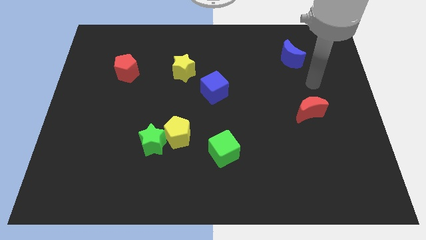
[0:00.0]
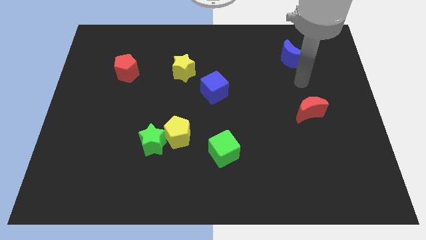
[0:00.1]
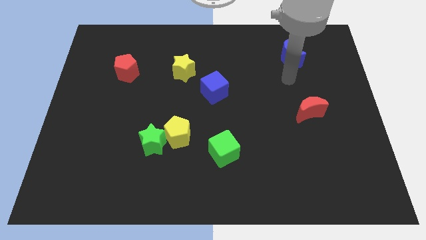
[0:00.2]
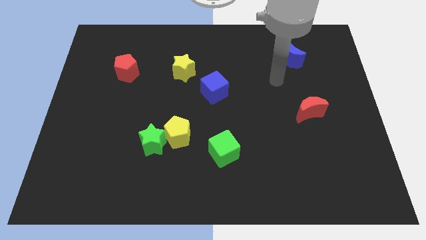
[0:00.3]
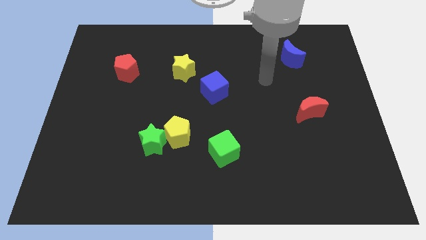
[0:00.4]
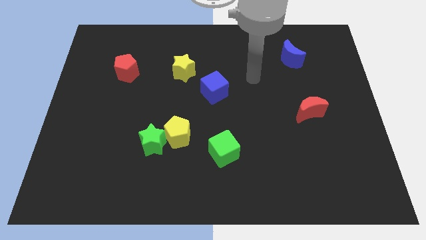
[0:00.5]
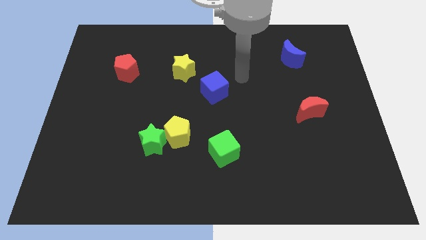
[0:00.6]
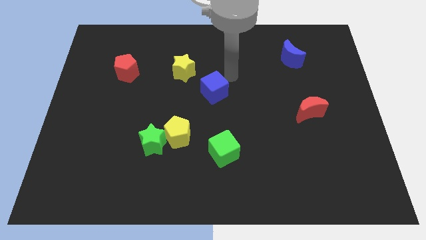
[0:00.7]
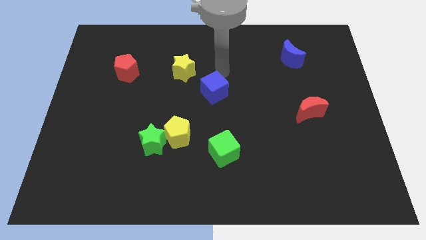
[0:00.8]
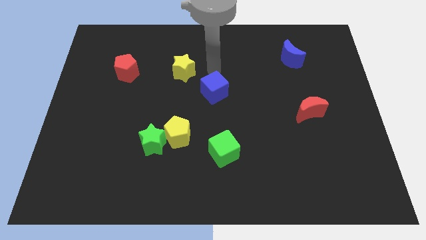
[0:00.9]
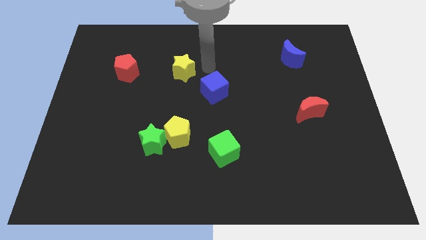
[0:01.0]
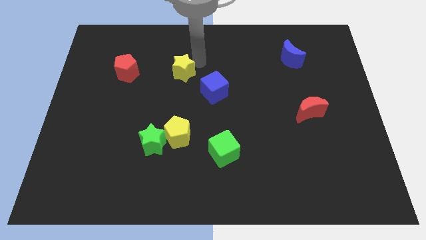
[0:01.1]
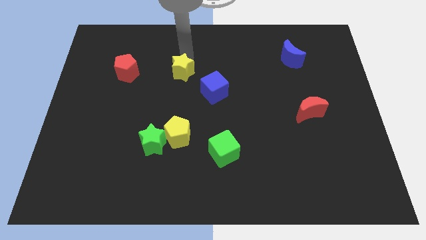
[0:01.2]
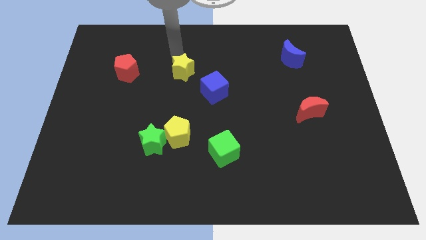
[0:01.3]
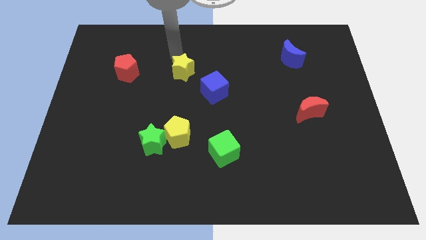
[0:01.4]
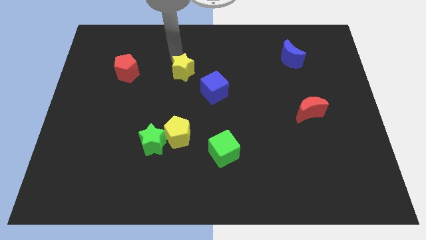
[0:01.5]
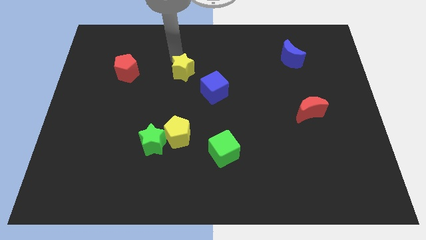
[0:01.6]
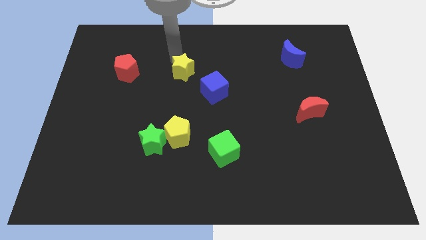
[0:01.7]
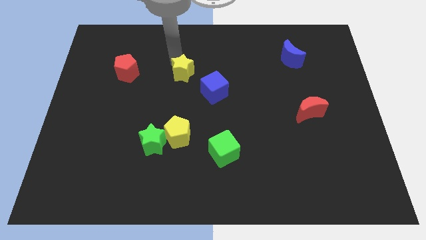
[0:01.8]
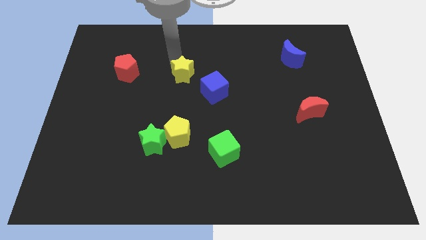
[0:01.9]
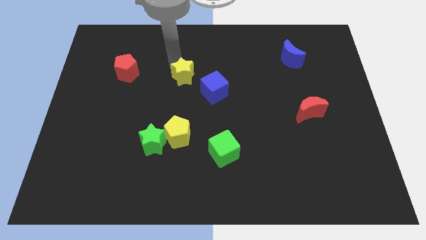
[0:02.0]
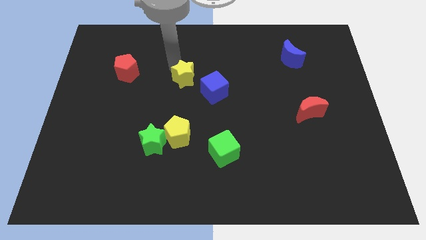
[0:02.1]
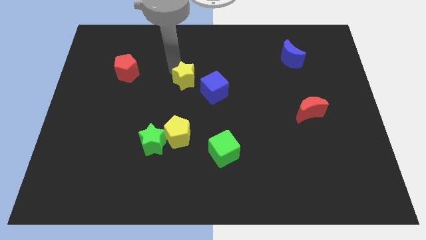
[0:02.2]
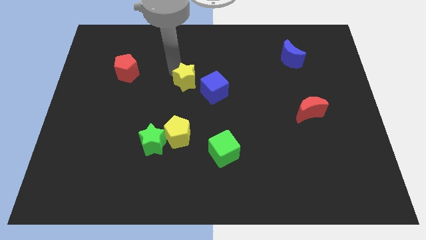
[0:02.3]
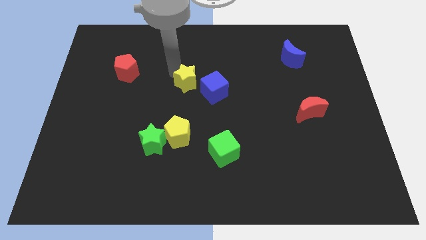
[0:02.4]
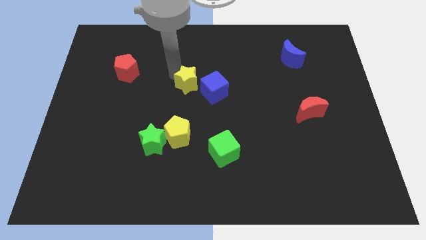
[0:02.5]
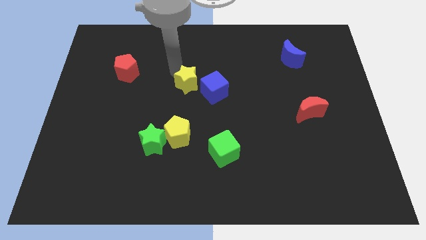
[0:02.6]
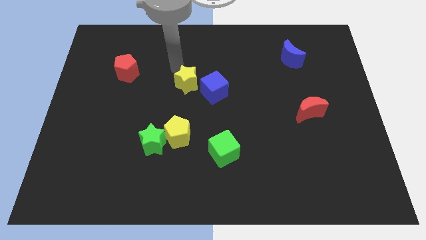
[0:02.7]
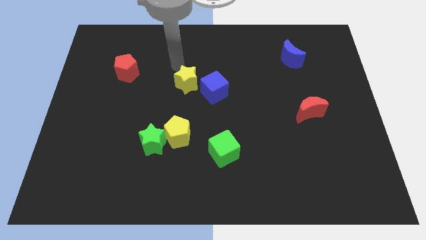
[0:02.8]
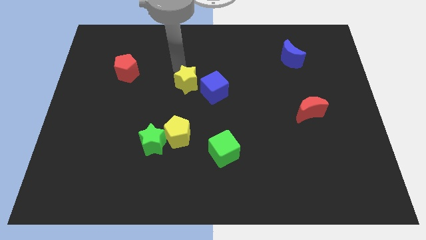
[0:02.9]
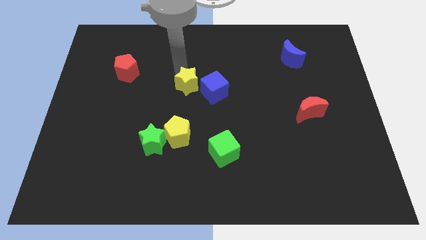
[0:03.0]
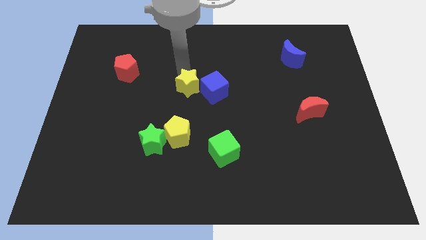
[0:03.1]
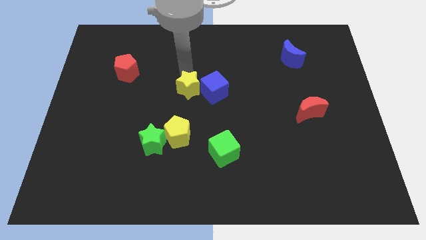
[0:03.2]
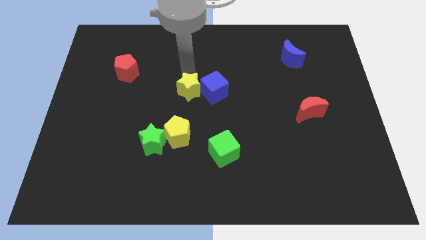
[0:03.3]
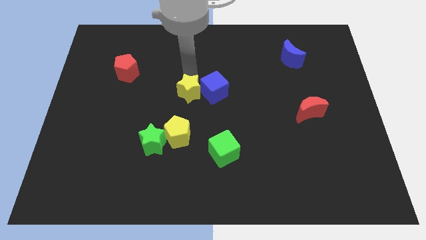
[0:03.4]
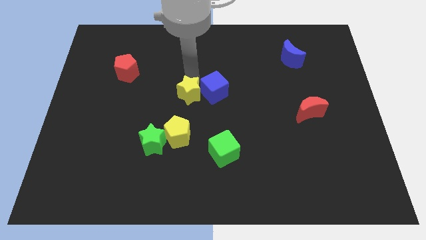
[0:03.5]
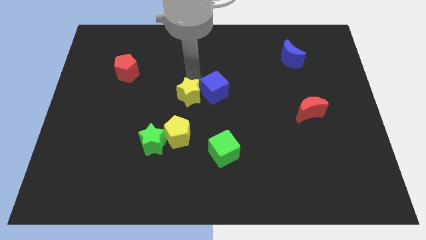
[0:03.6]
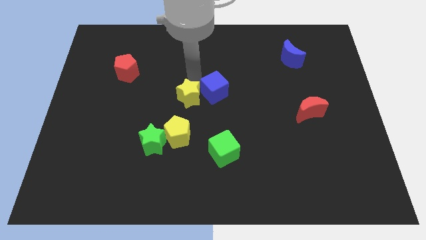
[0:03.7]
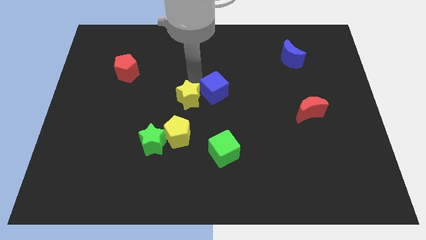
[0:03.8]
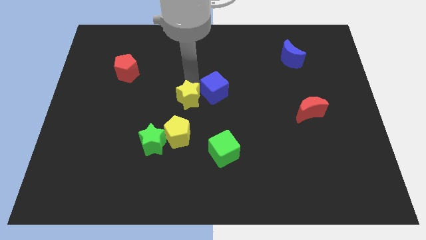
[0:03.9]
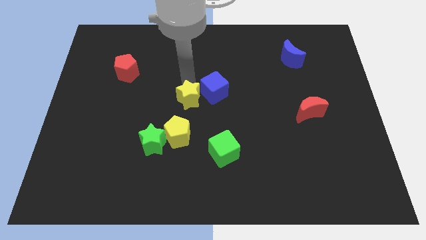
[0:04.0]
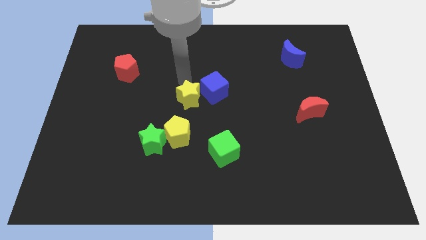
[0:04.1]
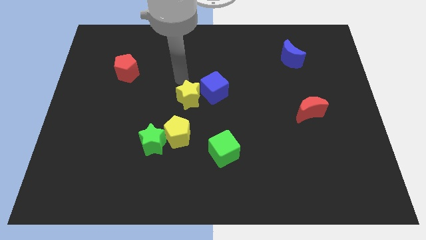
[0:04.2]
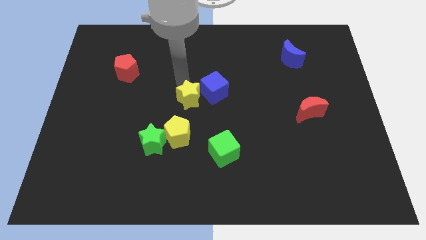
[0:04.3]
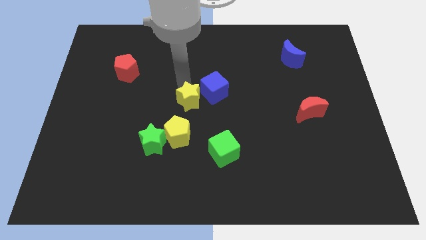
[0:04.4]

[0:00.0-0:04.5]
push the yellow star downwards and then right somewhat

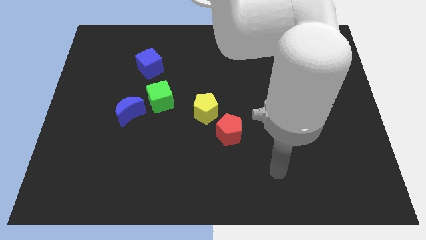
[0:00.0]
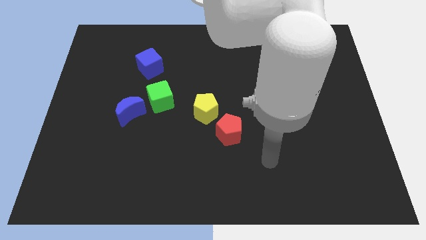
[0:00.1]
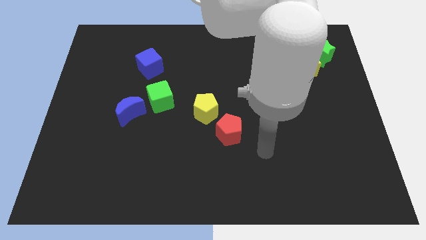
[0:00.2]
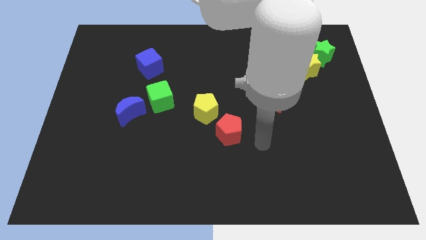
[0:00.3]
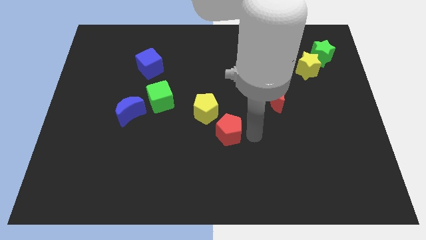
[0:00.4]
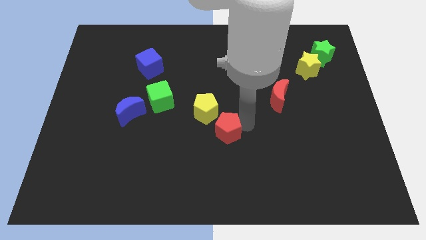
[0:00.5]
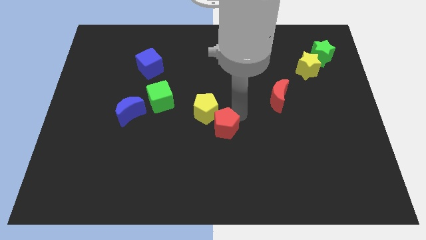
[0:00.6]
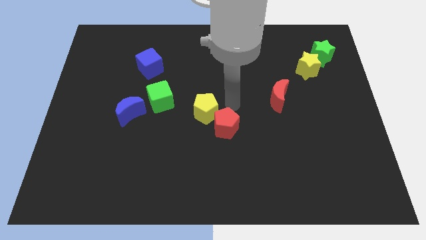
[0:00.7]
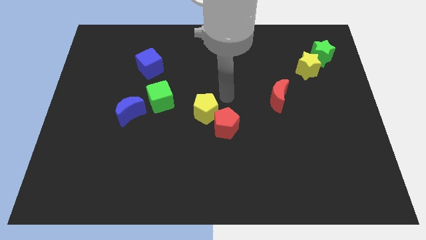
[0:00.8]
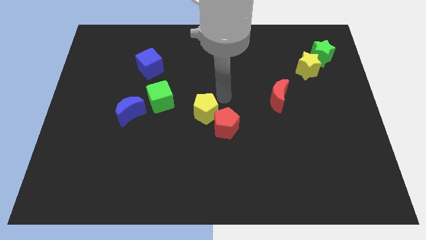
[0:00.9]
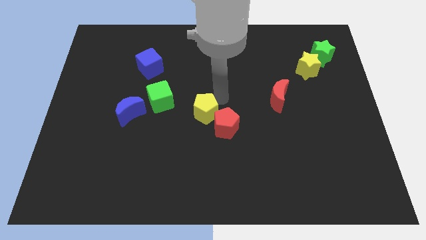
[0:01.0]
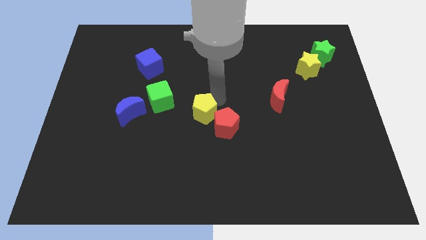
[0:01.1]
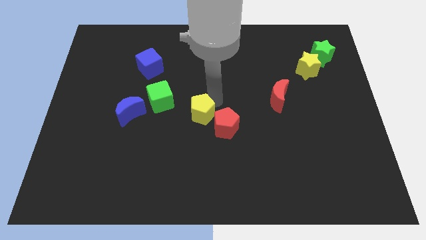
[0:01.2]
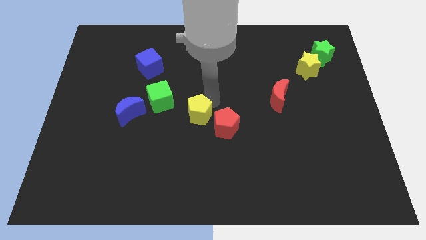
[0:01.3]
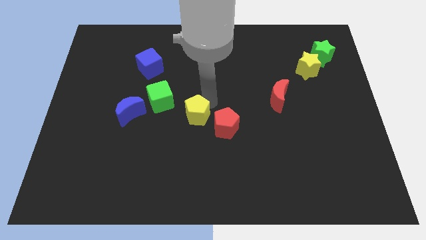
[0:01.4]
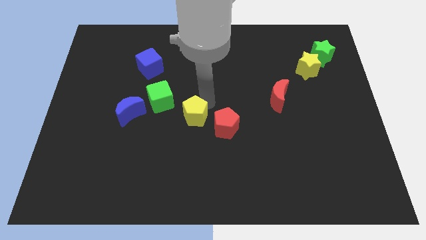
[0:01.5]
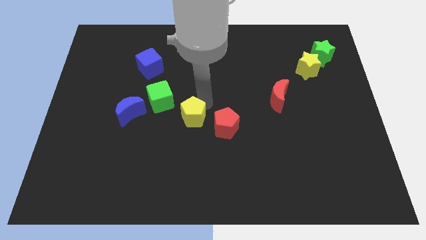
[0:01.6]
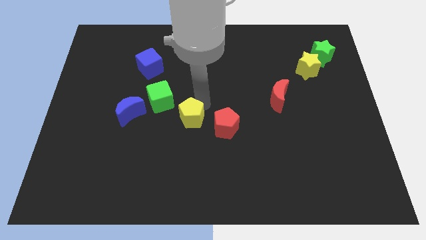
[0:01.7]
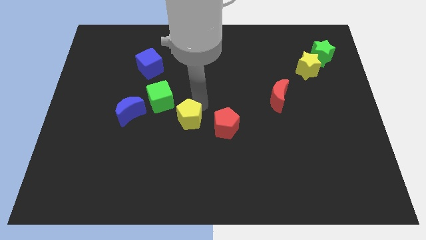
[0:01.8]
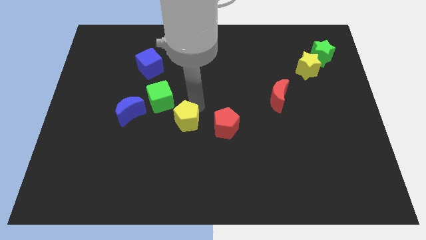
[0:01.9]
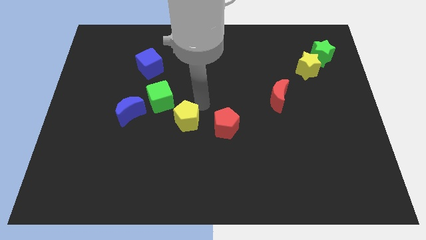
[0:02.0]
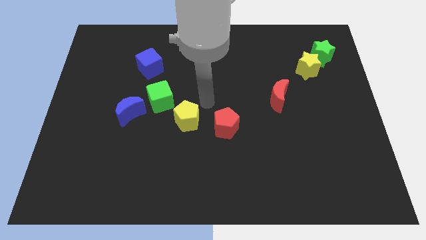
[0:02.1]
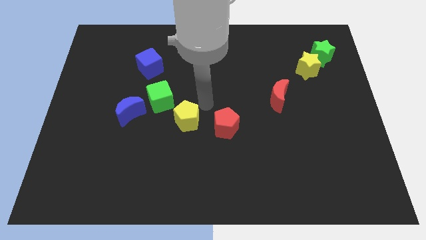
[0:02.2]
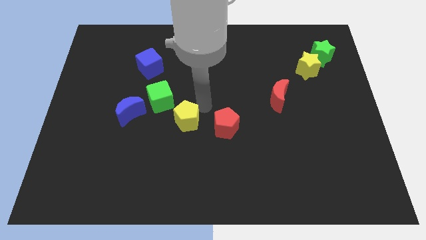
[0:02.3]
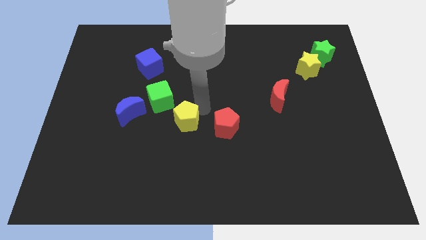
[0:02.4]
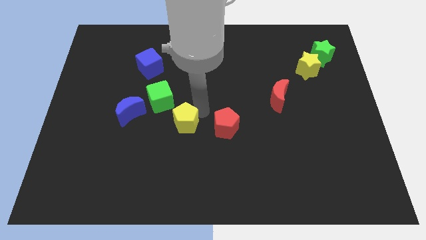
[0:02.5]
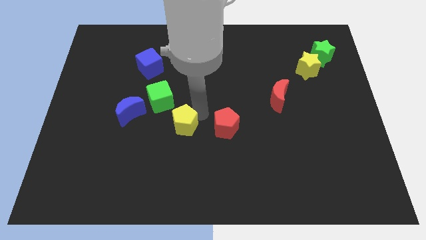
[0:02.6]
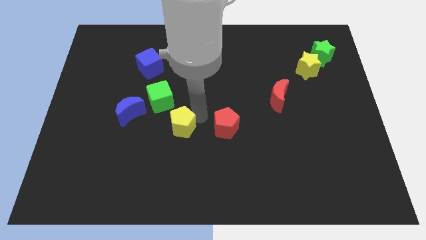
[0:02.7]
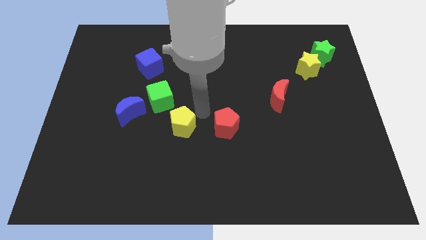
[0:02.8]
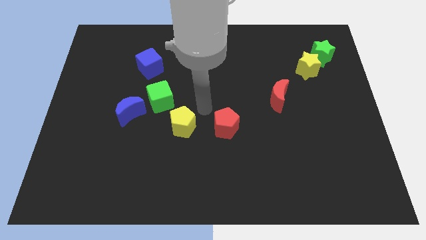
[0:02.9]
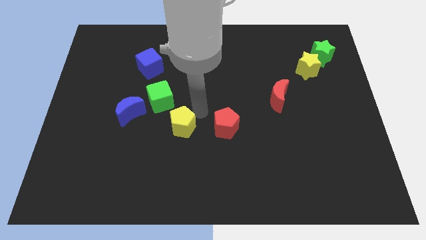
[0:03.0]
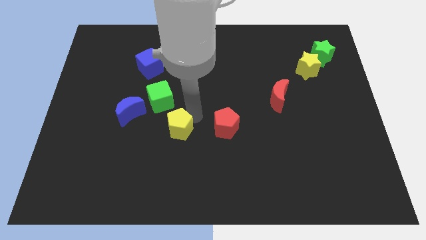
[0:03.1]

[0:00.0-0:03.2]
slightly move the yellow pentagon downwards and left

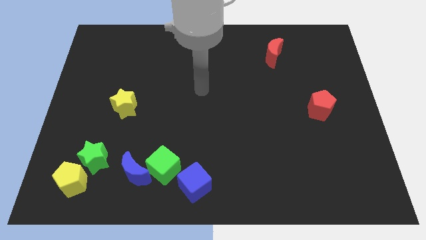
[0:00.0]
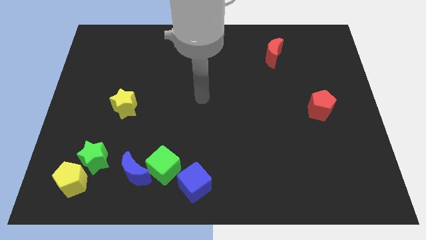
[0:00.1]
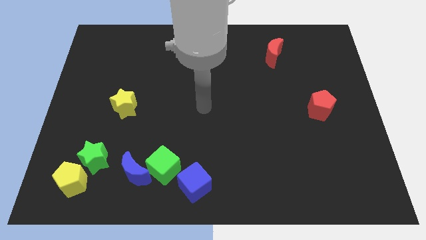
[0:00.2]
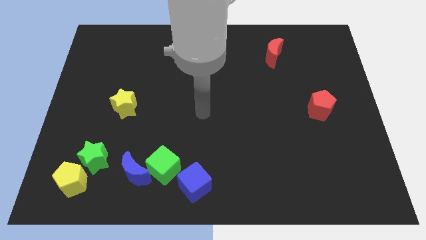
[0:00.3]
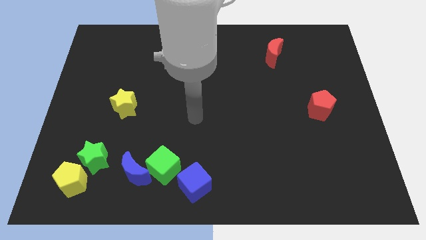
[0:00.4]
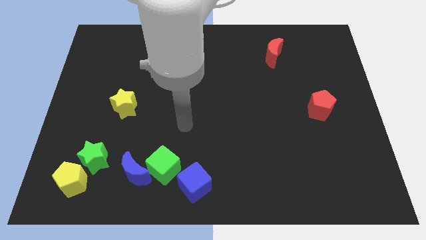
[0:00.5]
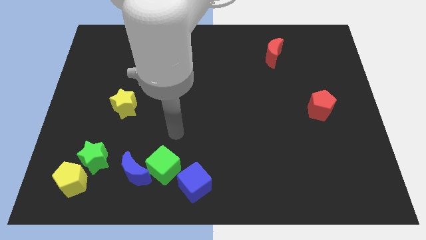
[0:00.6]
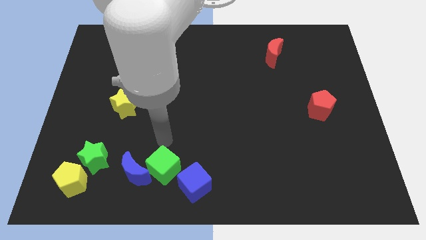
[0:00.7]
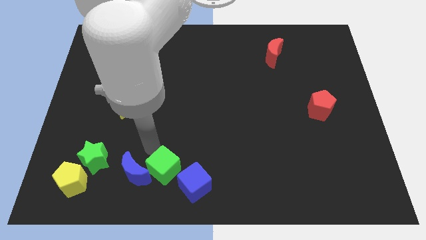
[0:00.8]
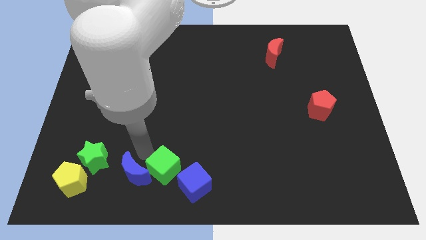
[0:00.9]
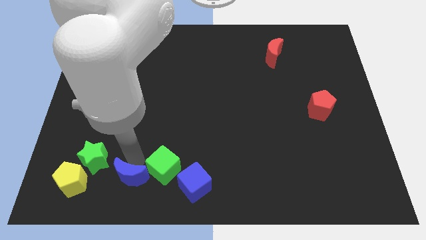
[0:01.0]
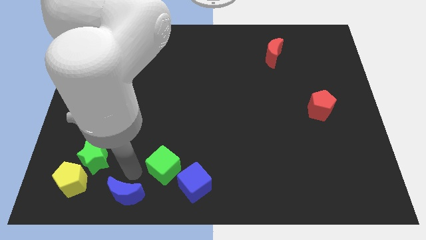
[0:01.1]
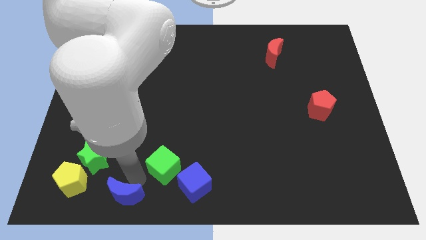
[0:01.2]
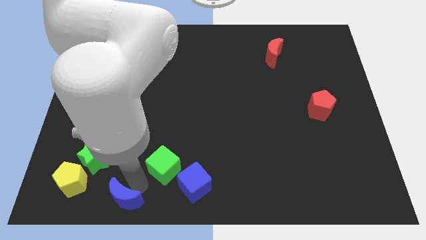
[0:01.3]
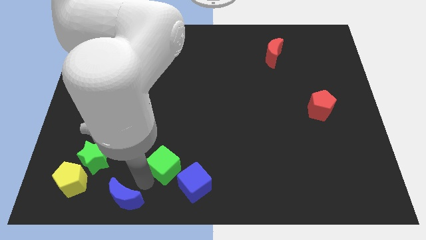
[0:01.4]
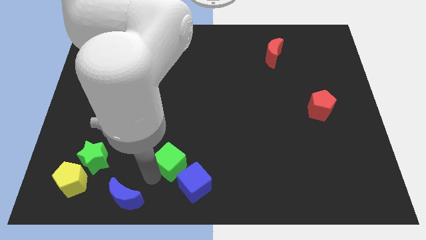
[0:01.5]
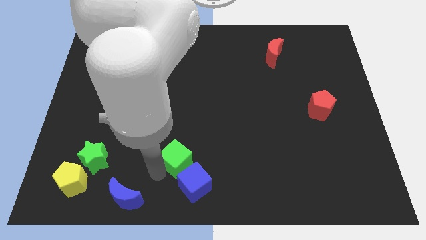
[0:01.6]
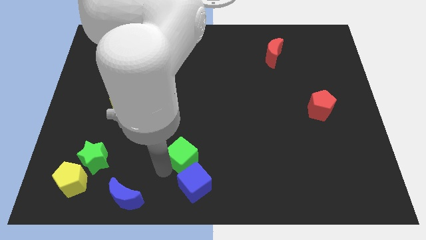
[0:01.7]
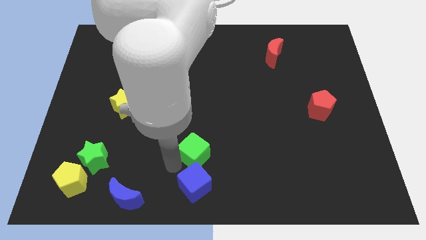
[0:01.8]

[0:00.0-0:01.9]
move the green cube somewhat upwards and right
